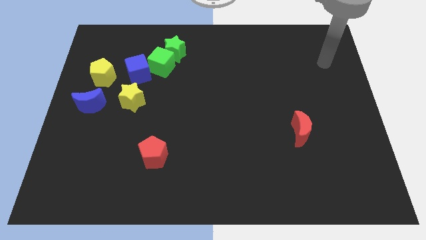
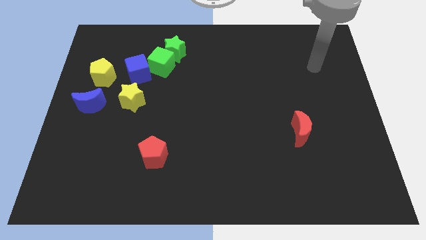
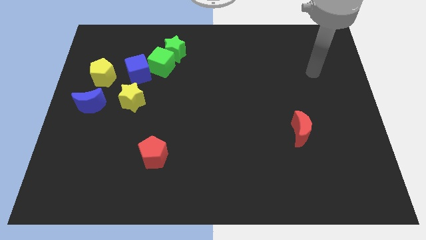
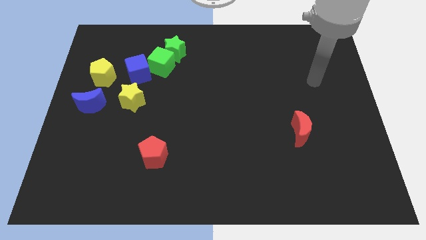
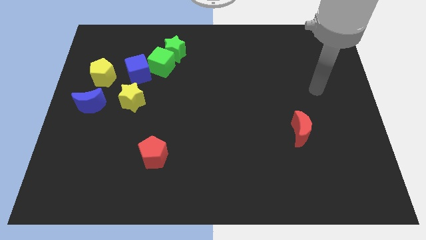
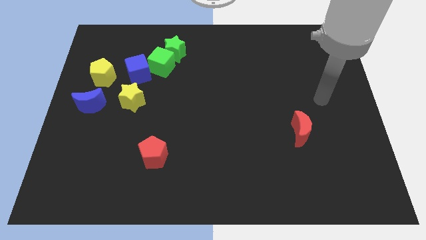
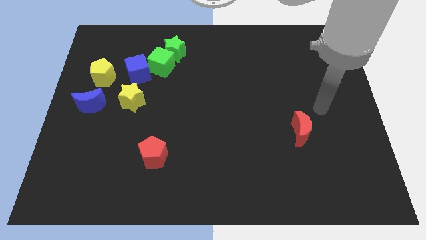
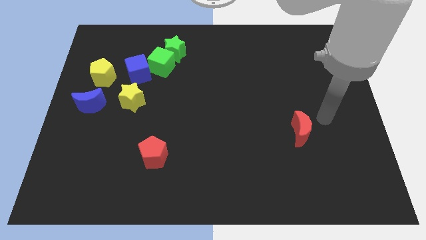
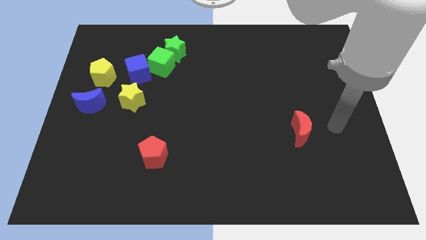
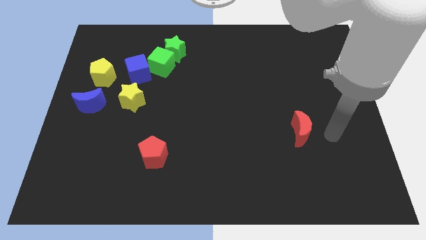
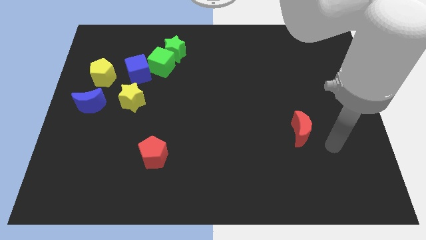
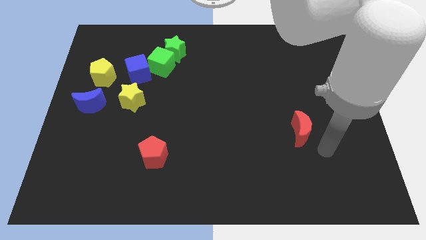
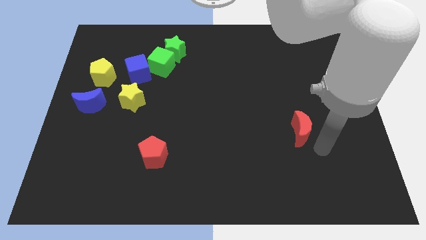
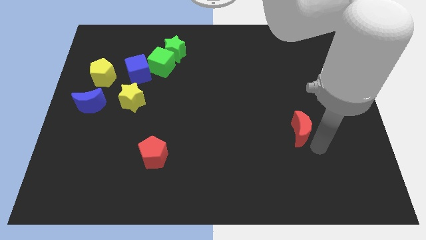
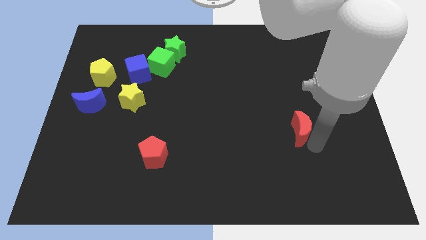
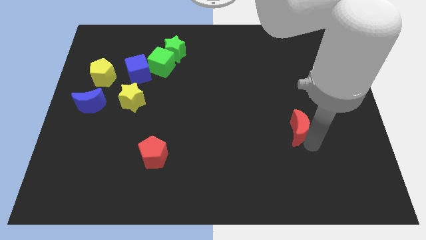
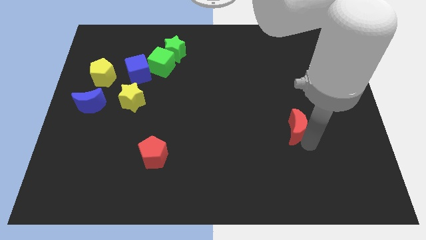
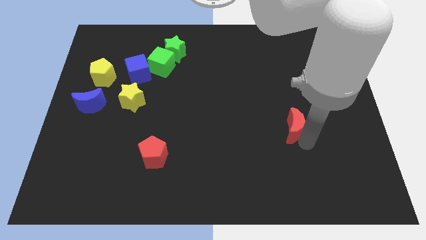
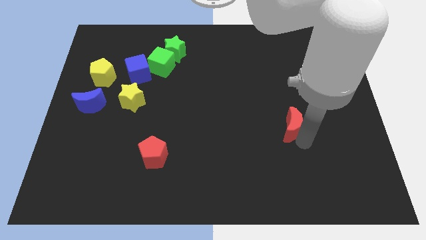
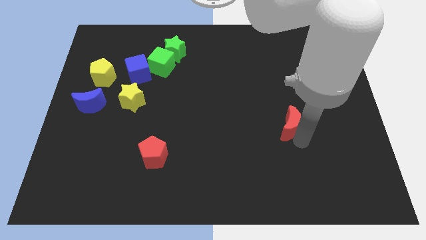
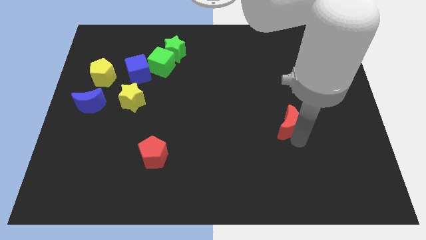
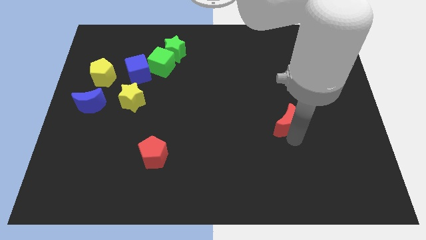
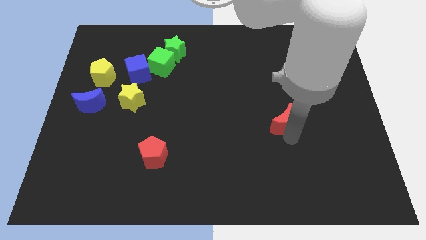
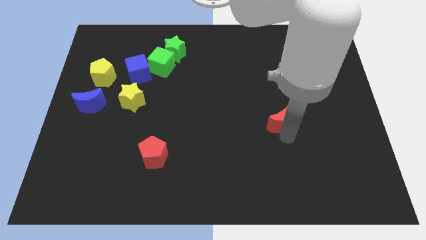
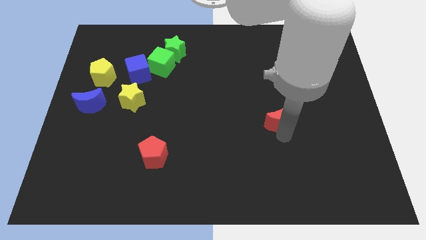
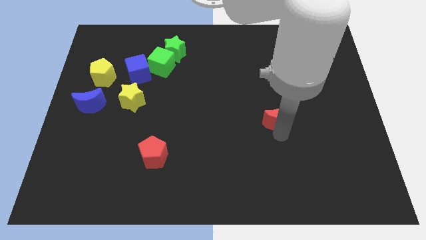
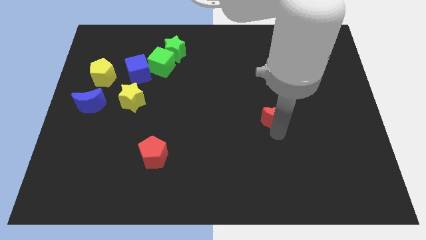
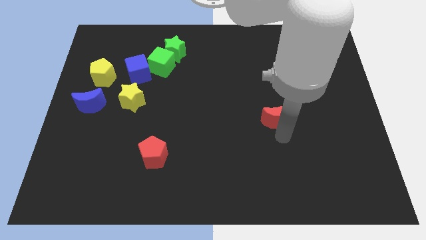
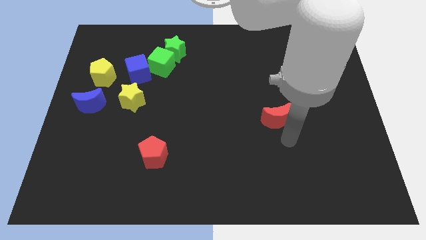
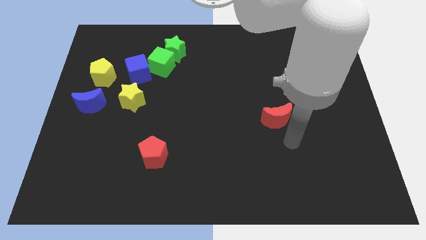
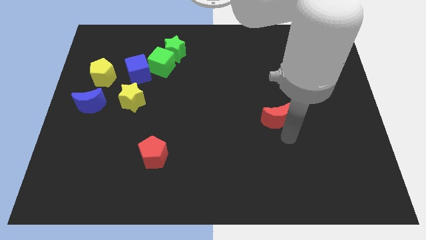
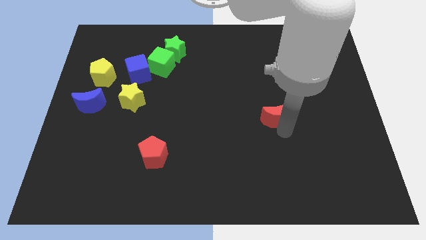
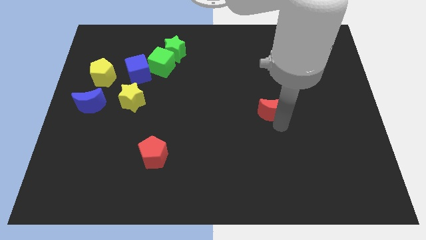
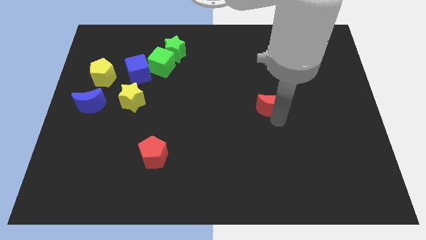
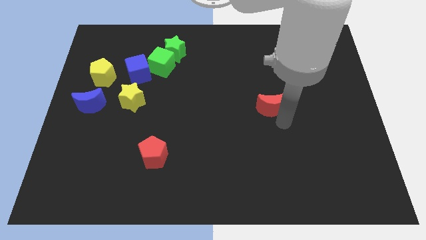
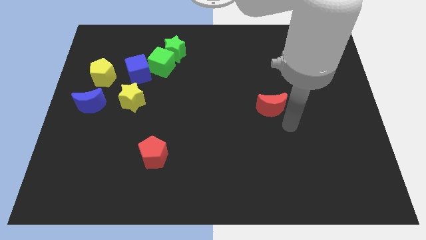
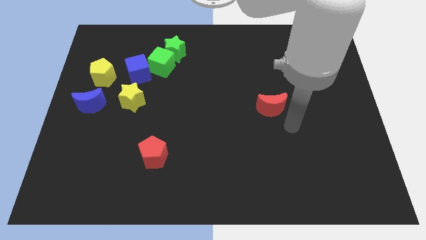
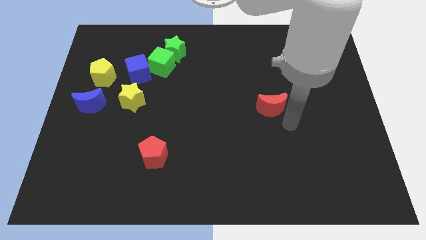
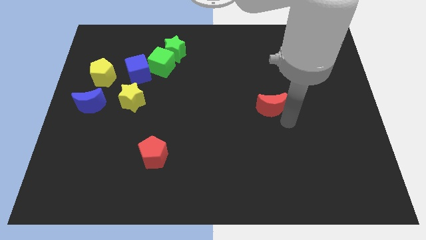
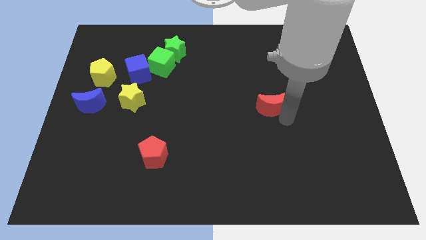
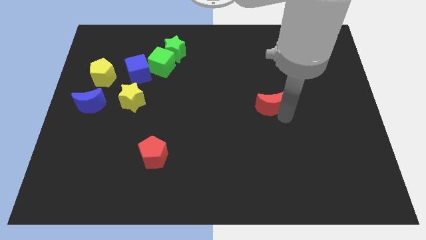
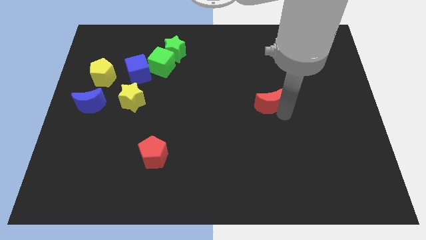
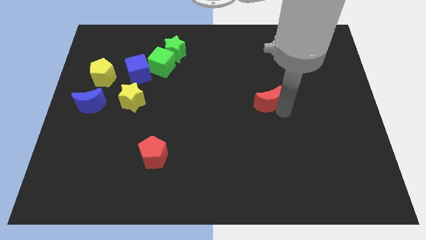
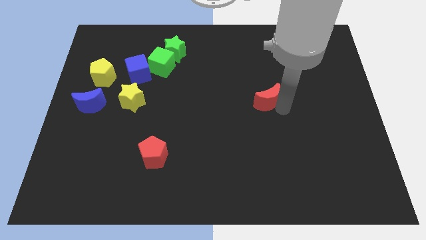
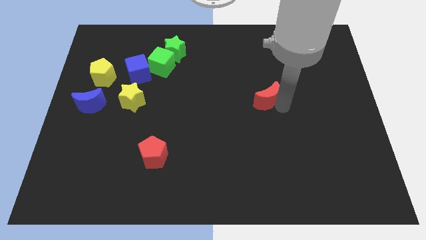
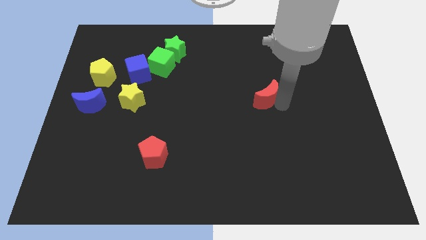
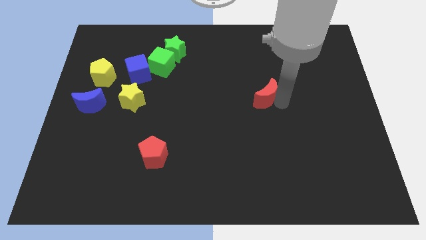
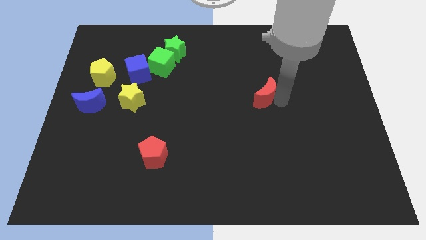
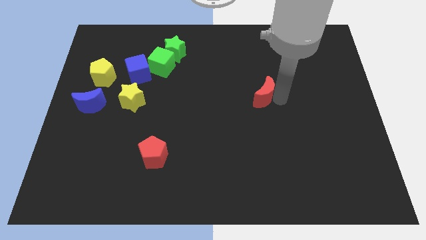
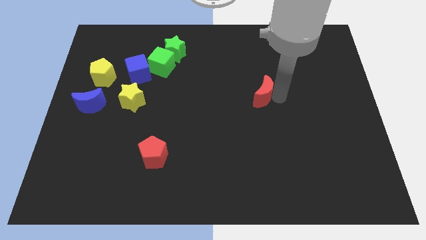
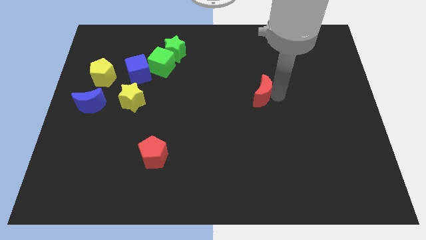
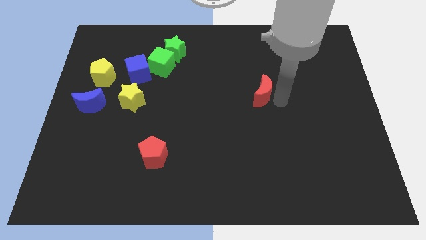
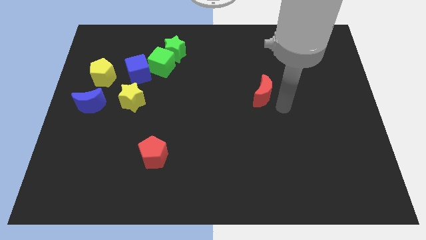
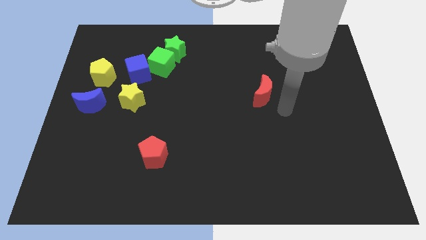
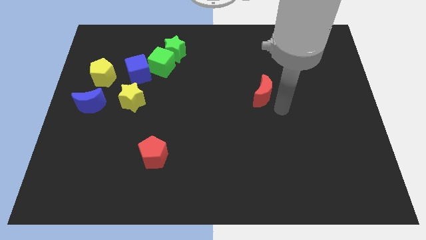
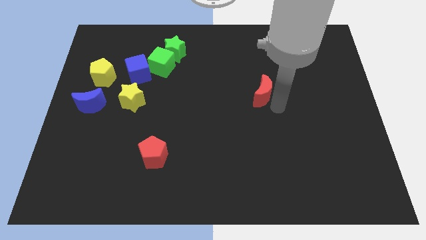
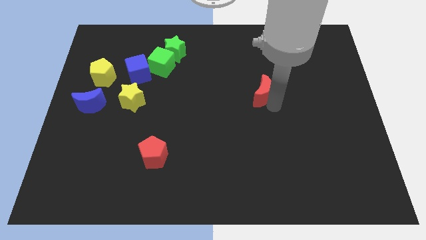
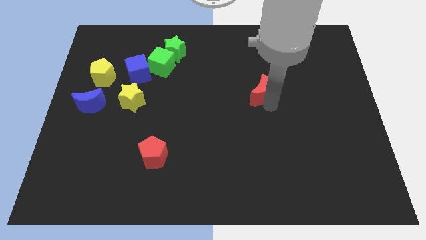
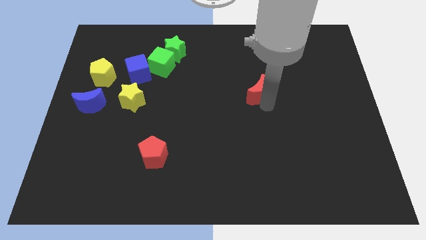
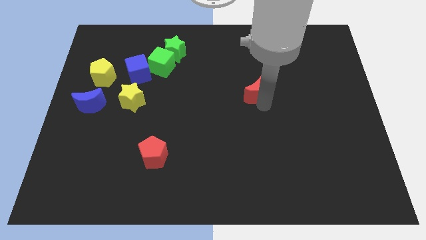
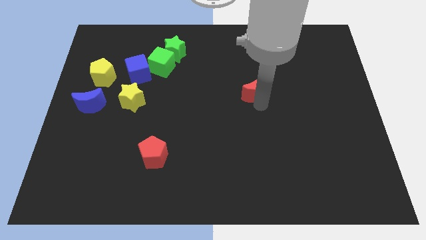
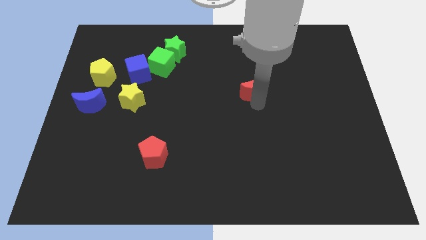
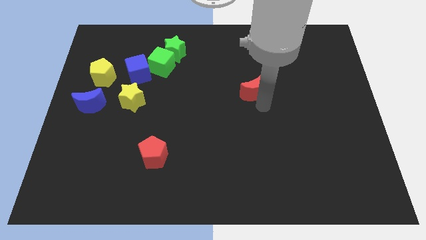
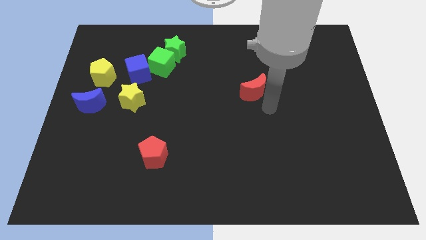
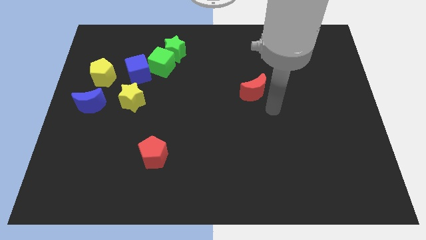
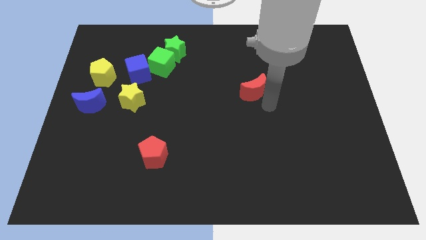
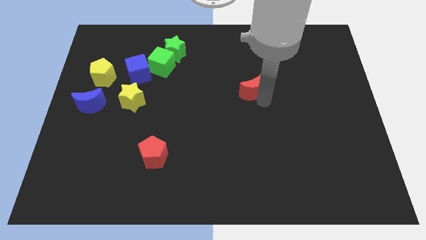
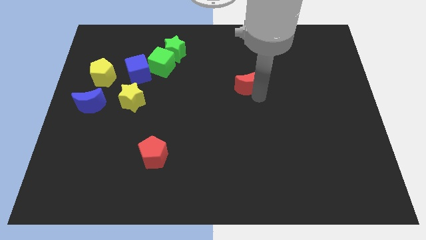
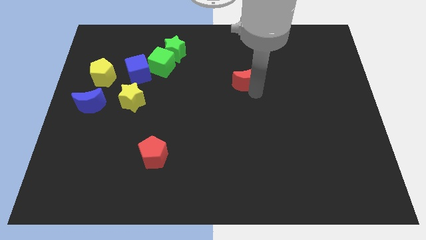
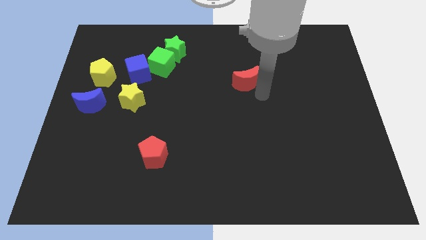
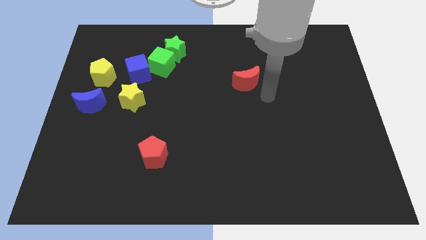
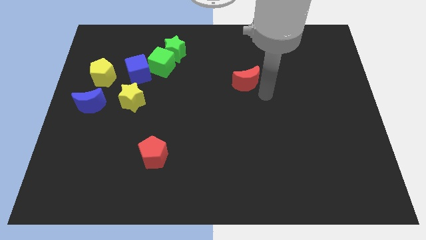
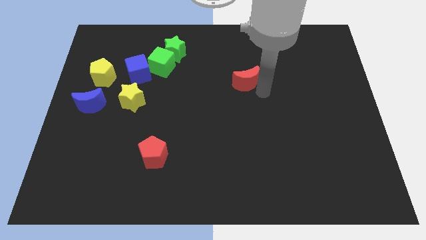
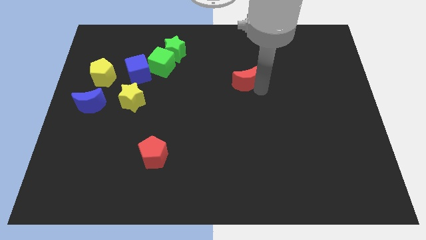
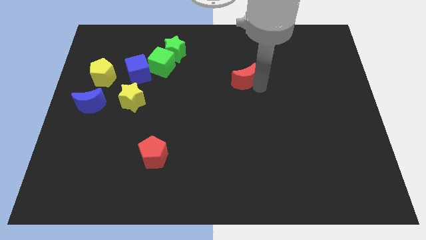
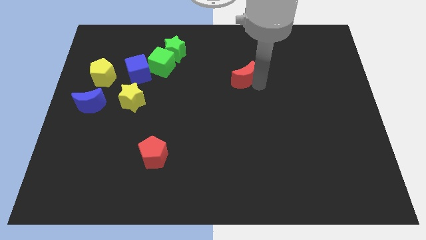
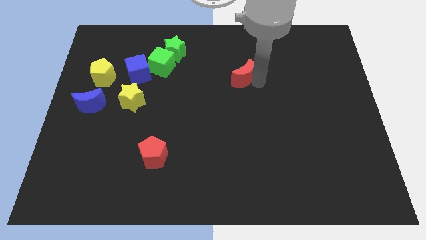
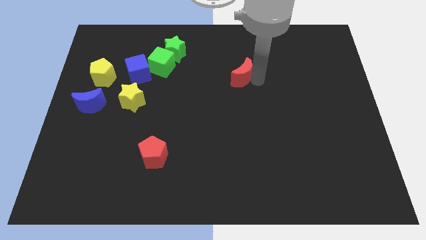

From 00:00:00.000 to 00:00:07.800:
push the red moon diagonally up and left

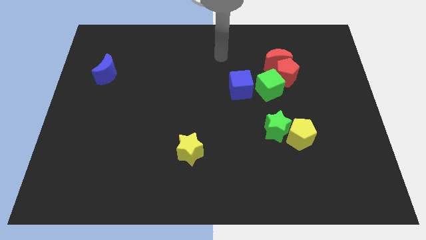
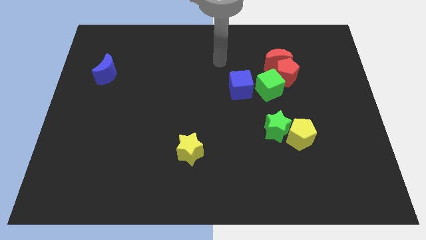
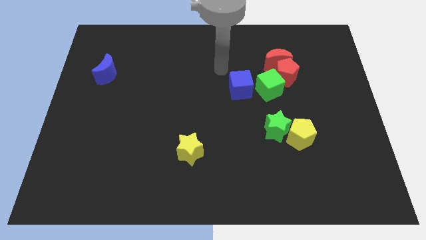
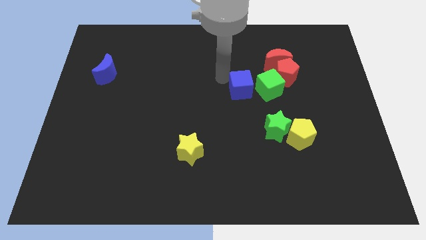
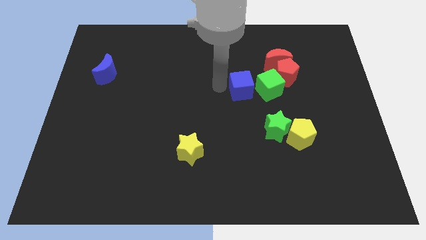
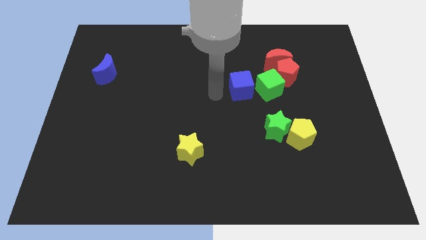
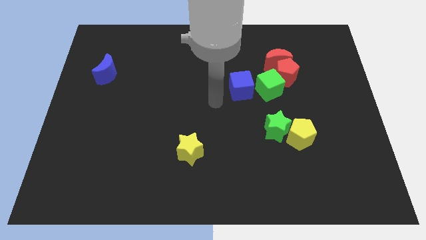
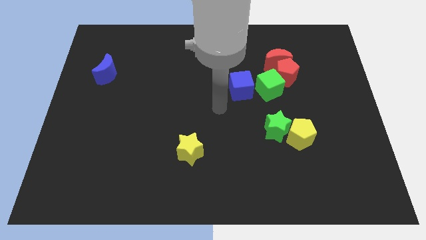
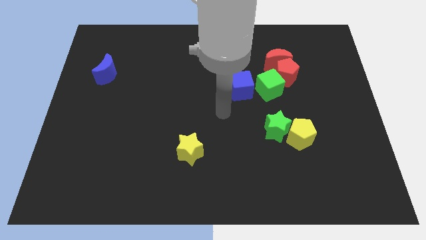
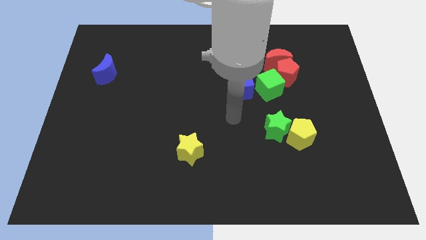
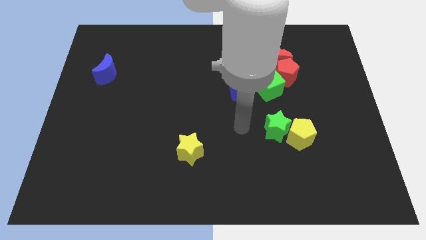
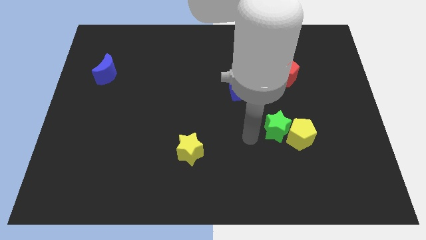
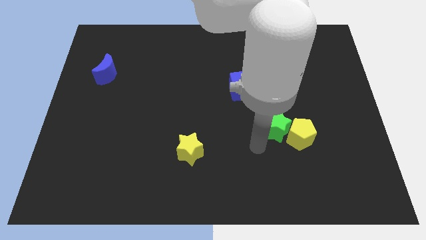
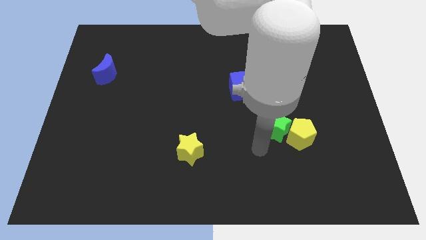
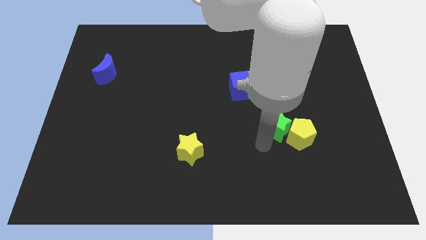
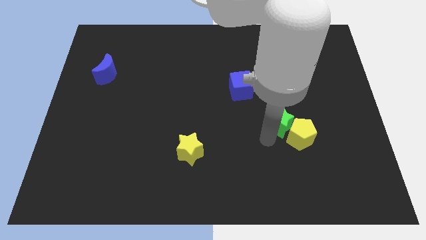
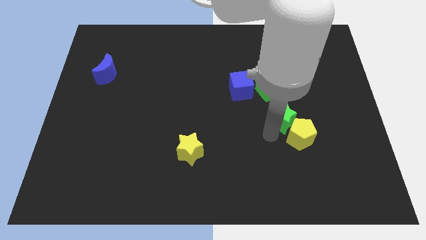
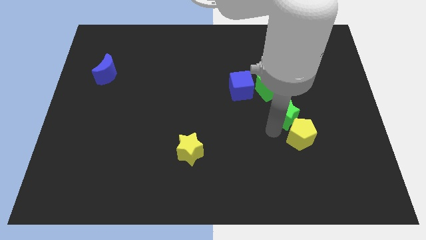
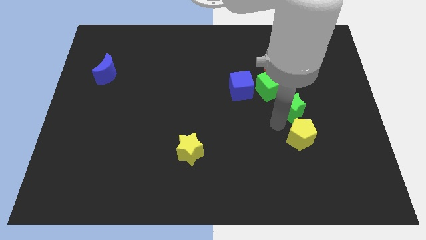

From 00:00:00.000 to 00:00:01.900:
push the green star somewhat up and then right
